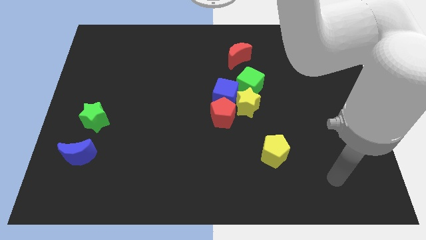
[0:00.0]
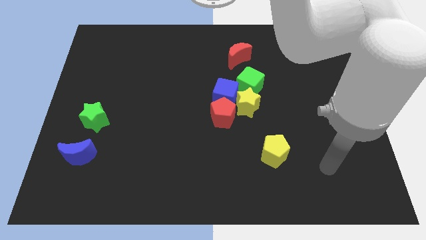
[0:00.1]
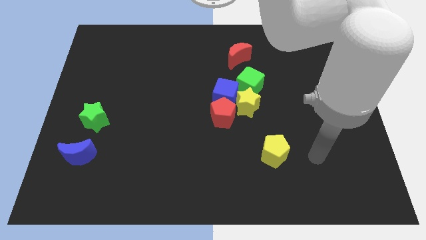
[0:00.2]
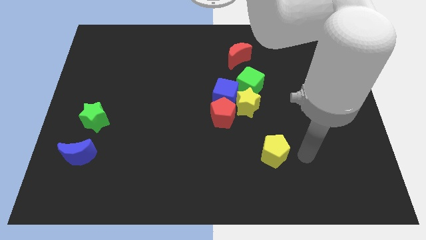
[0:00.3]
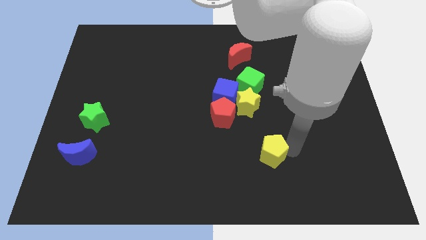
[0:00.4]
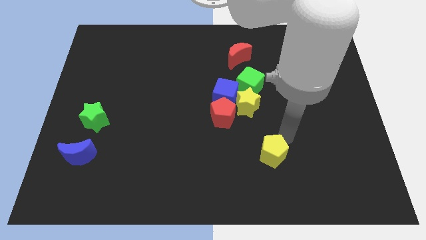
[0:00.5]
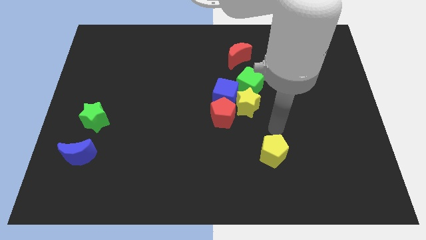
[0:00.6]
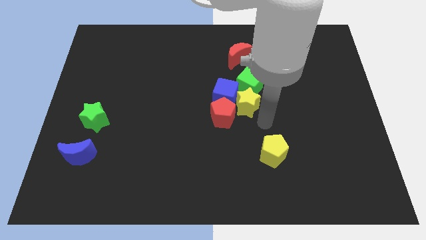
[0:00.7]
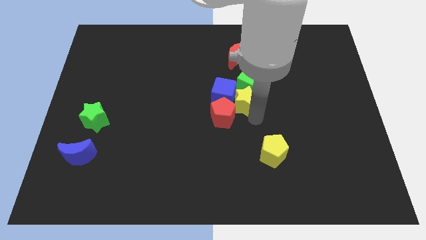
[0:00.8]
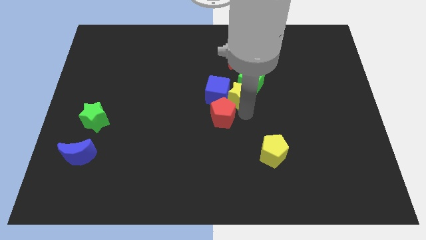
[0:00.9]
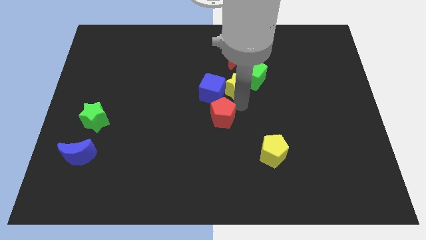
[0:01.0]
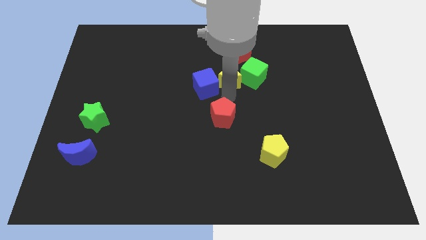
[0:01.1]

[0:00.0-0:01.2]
separate the red pentagon from the blue cube and yellow star

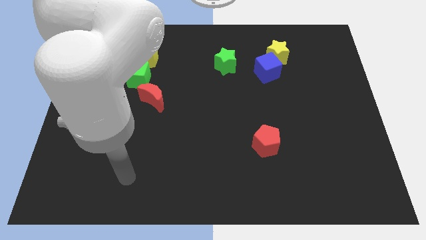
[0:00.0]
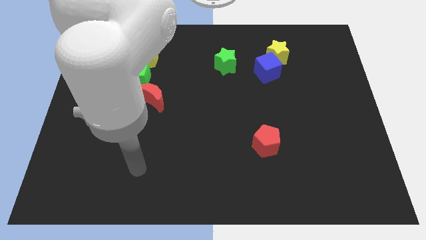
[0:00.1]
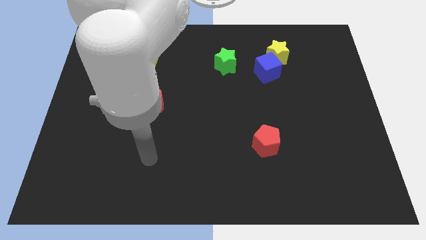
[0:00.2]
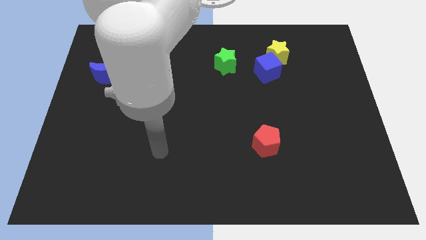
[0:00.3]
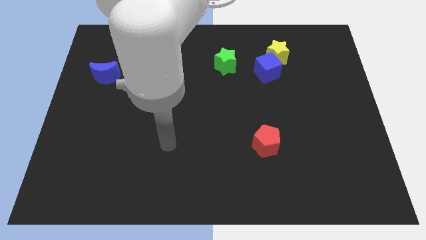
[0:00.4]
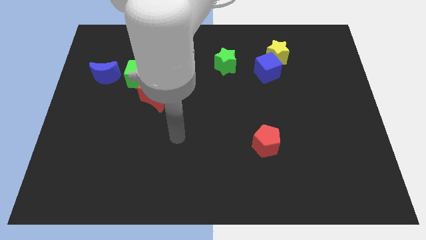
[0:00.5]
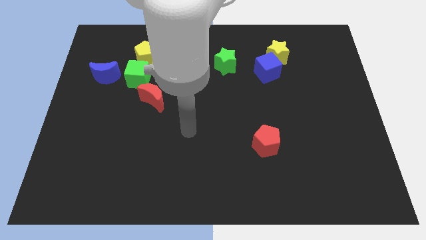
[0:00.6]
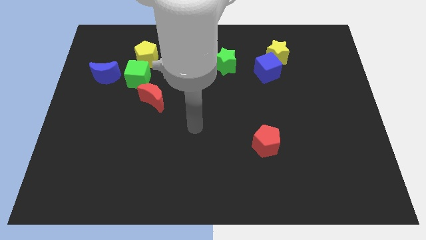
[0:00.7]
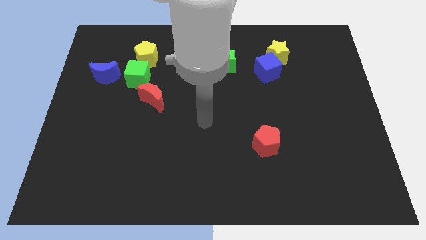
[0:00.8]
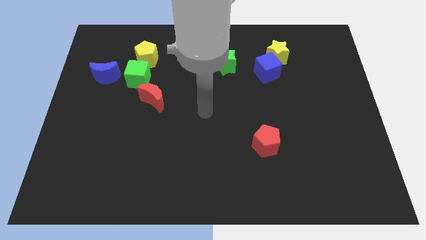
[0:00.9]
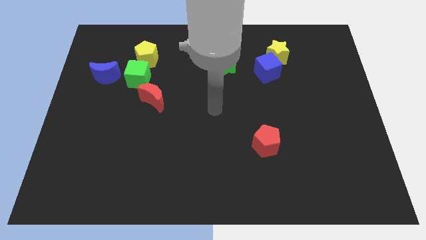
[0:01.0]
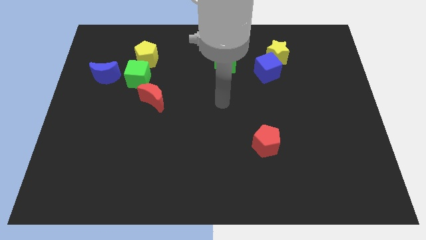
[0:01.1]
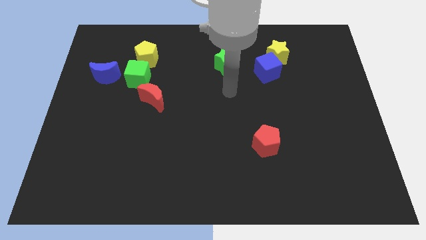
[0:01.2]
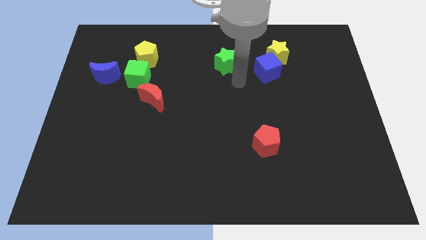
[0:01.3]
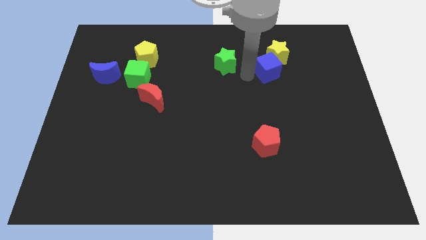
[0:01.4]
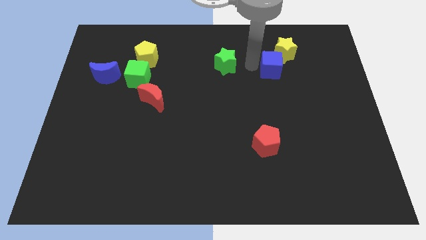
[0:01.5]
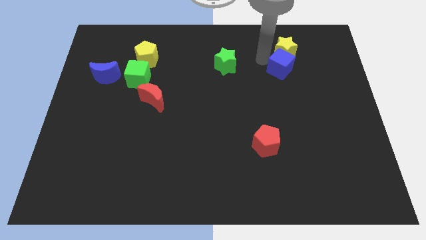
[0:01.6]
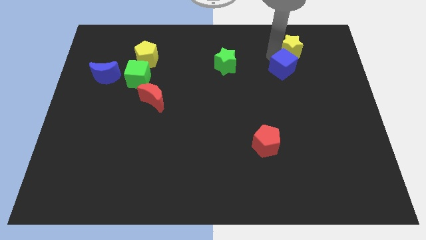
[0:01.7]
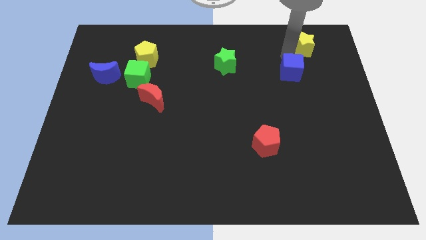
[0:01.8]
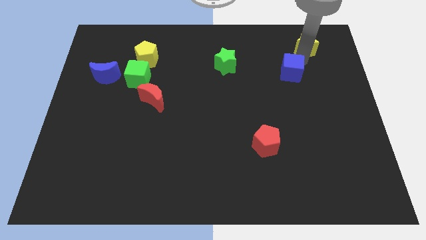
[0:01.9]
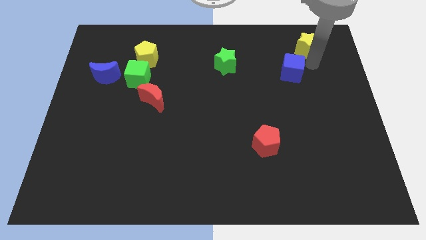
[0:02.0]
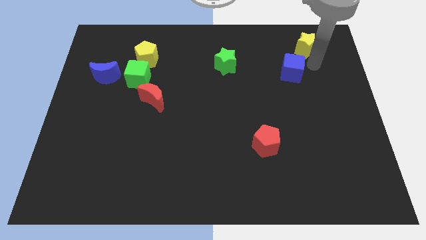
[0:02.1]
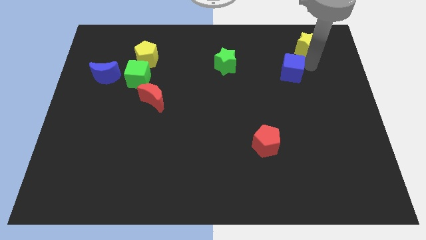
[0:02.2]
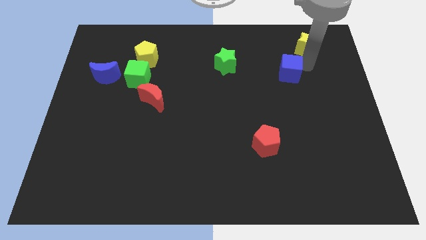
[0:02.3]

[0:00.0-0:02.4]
pull the blue cube apart from the yellow star

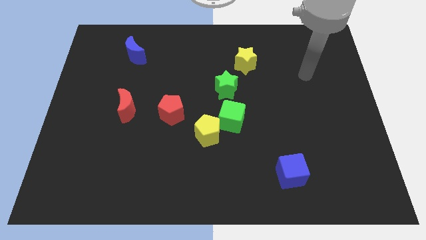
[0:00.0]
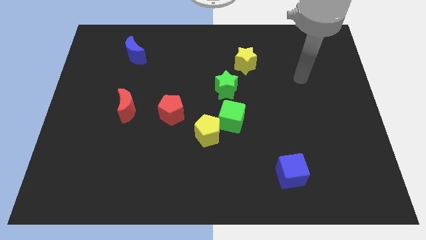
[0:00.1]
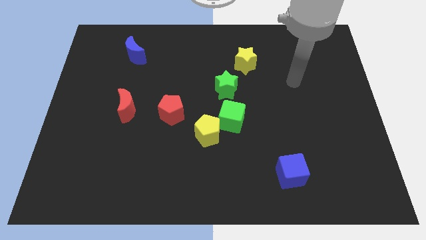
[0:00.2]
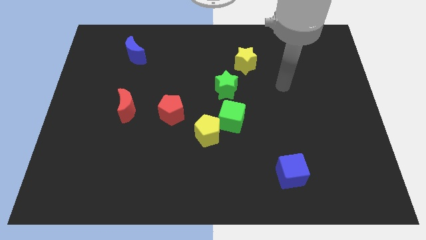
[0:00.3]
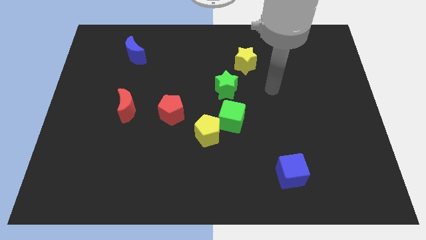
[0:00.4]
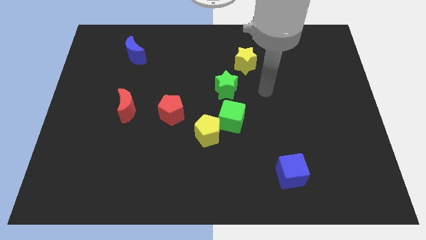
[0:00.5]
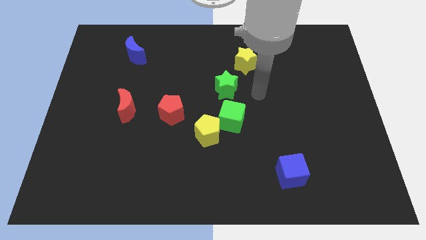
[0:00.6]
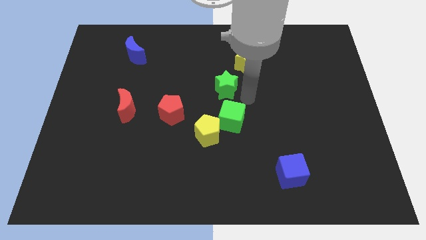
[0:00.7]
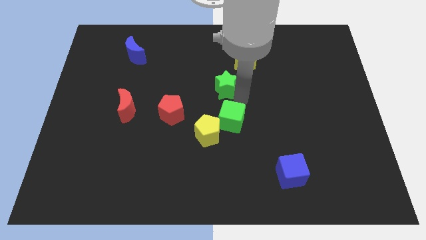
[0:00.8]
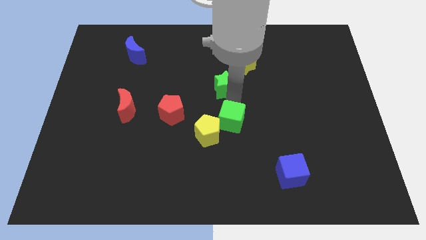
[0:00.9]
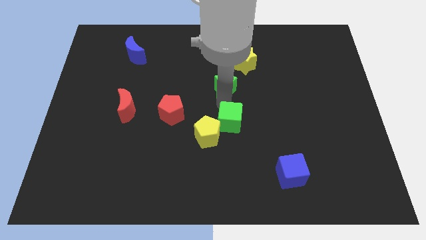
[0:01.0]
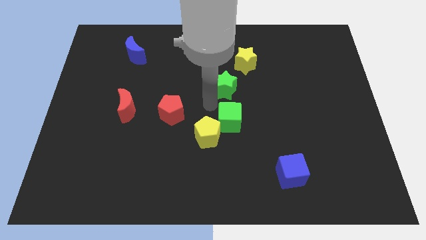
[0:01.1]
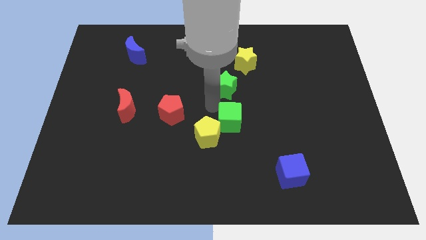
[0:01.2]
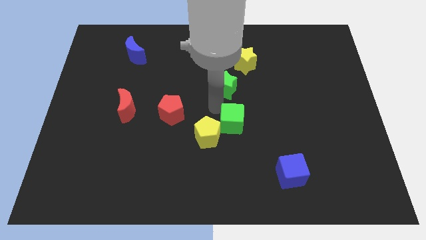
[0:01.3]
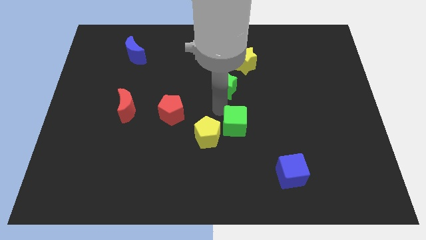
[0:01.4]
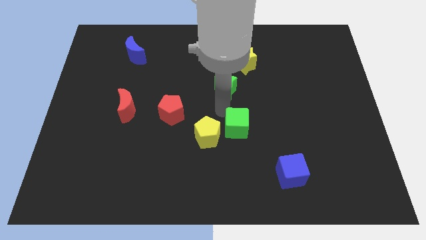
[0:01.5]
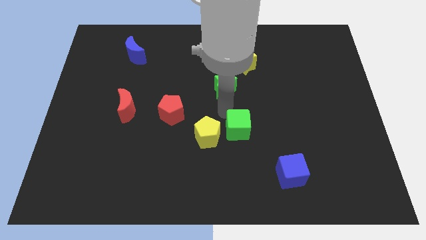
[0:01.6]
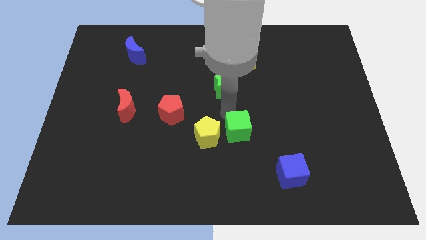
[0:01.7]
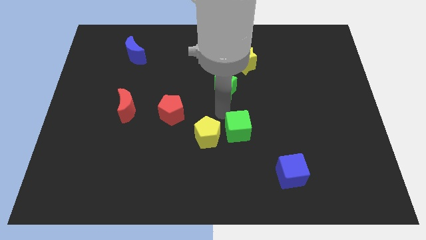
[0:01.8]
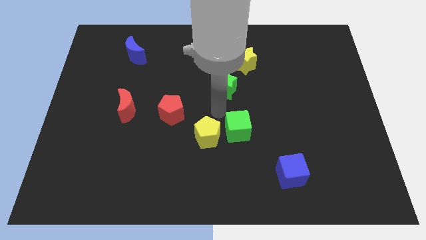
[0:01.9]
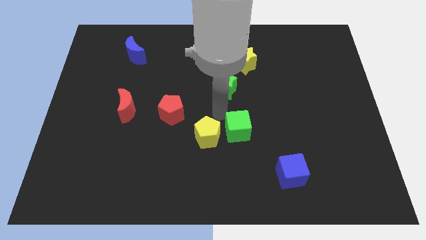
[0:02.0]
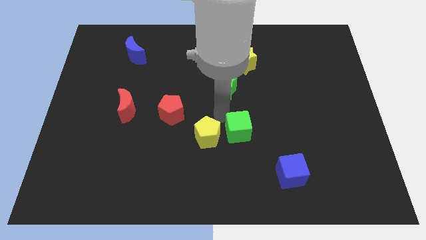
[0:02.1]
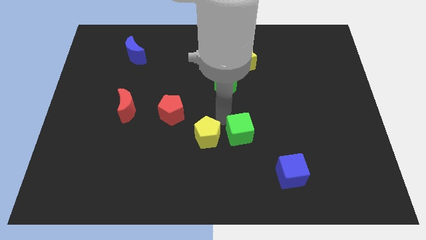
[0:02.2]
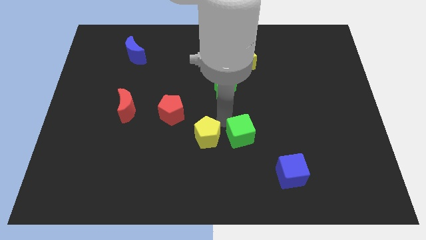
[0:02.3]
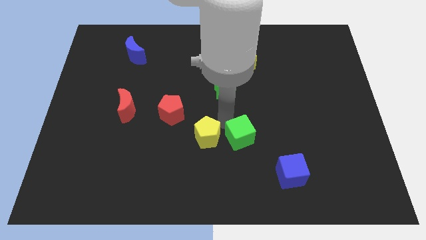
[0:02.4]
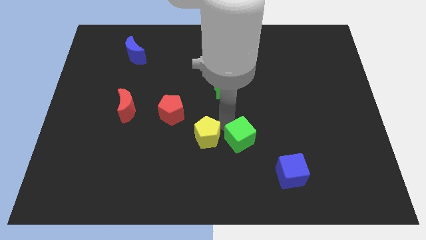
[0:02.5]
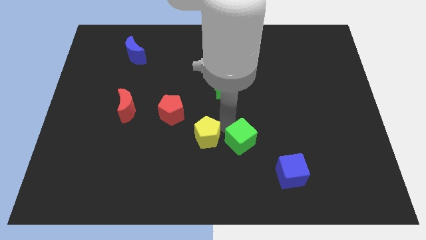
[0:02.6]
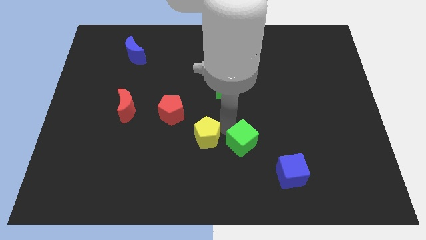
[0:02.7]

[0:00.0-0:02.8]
move the green cube away from the yellow pentagon and green star

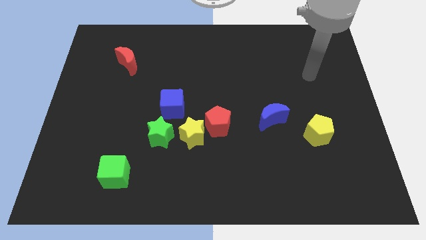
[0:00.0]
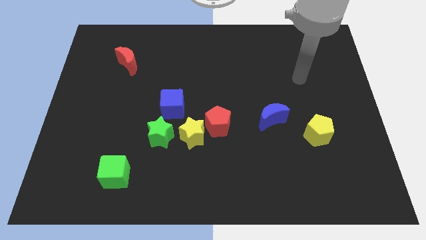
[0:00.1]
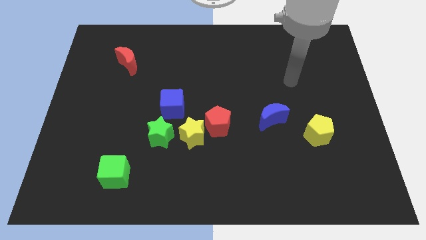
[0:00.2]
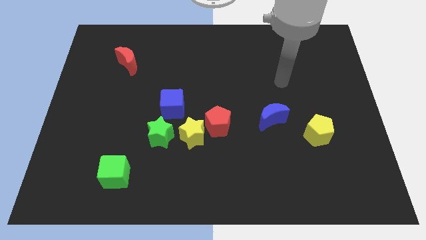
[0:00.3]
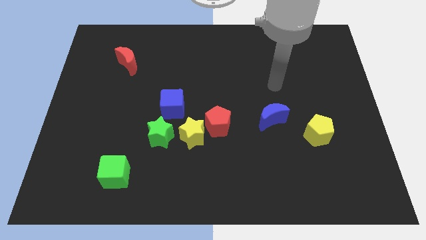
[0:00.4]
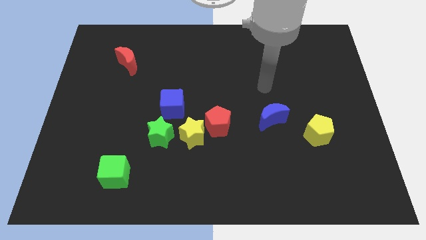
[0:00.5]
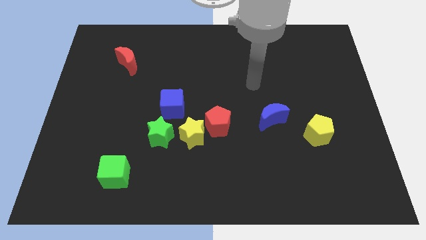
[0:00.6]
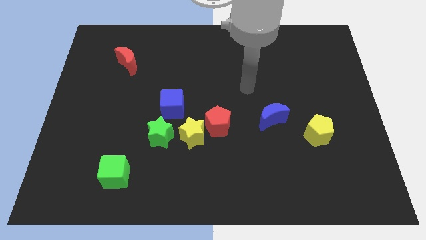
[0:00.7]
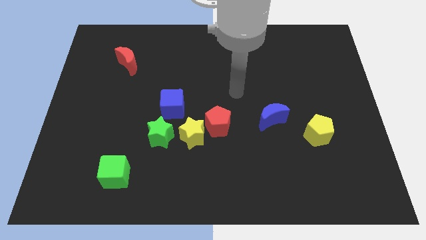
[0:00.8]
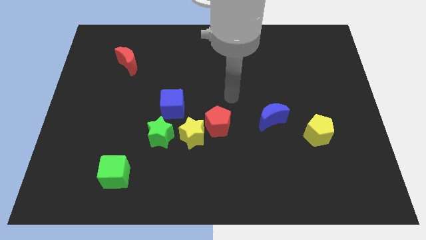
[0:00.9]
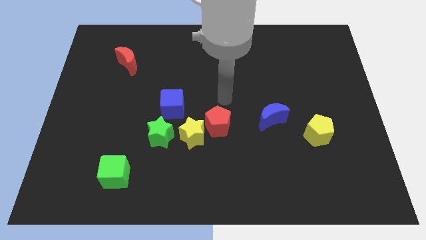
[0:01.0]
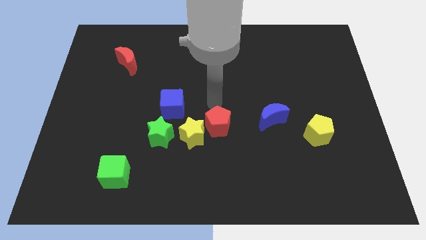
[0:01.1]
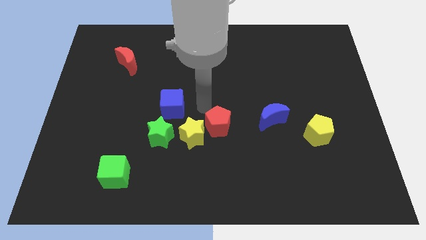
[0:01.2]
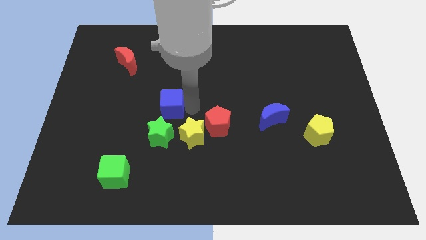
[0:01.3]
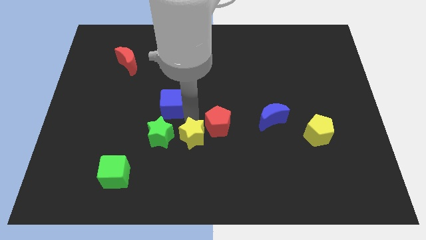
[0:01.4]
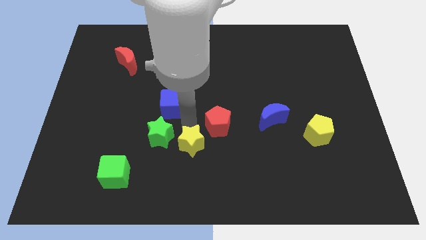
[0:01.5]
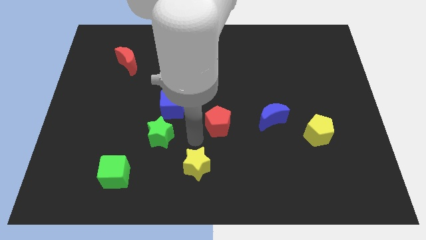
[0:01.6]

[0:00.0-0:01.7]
separate the red pentagon from the yellow star

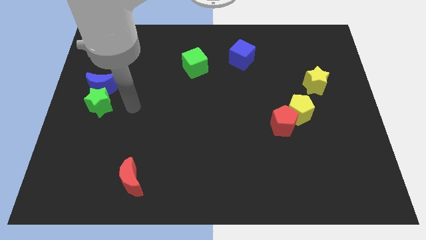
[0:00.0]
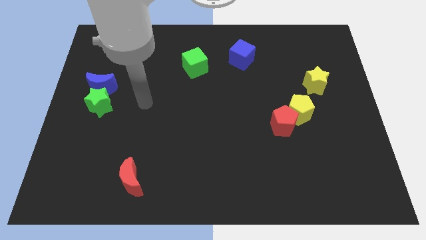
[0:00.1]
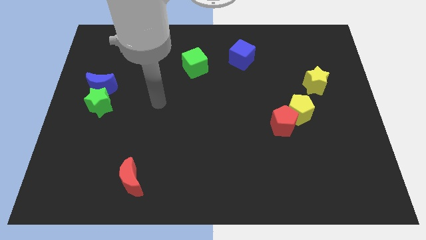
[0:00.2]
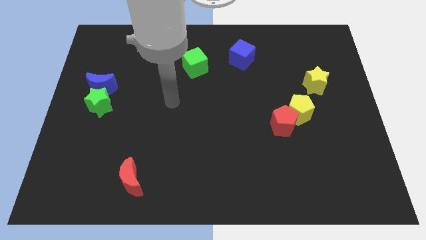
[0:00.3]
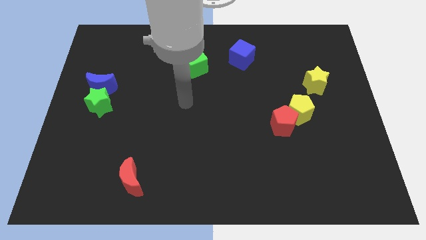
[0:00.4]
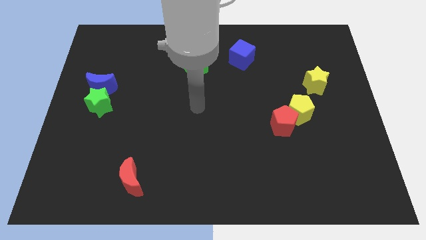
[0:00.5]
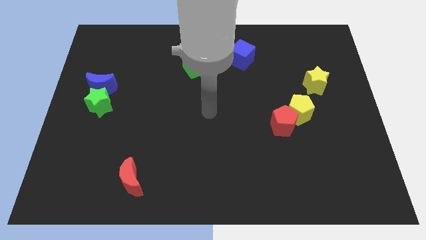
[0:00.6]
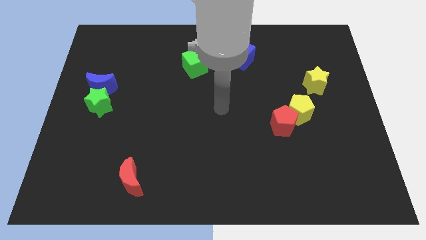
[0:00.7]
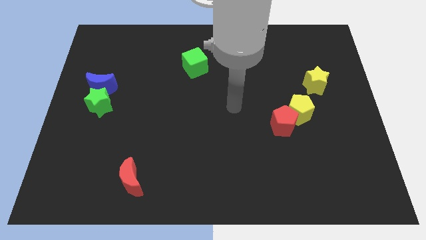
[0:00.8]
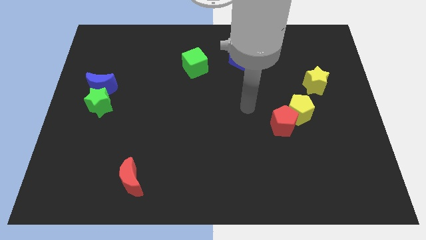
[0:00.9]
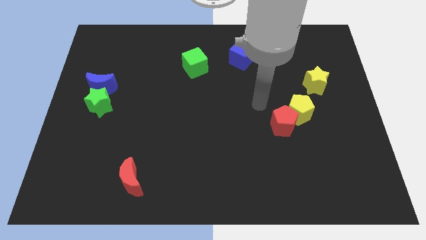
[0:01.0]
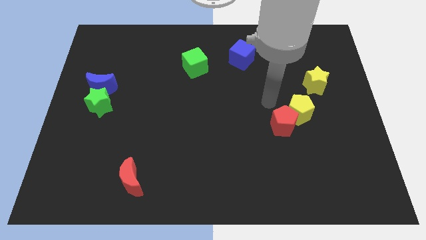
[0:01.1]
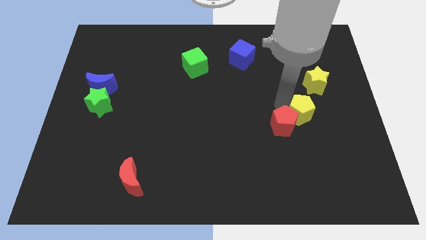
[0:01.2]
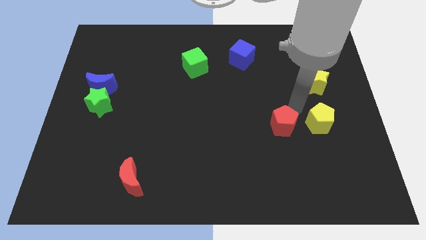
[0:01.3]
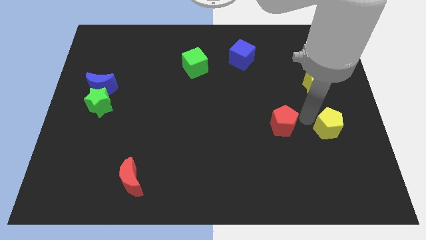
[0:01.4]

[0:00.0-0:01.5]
pull the red pentagon apart from the yellow pentagon
